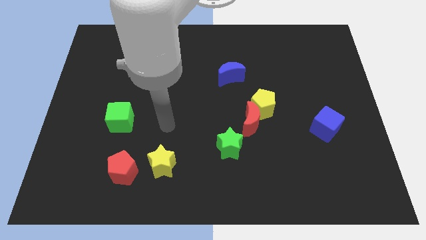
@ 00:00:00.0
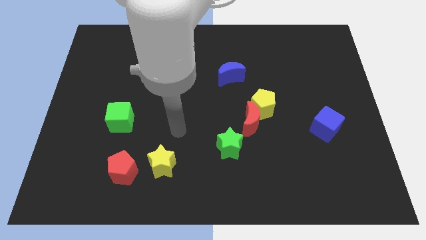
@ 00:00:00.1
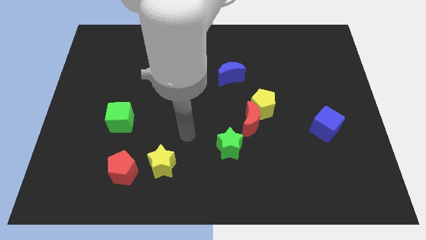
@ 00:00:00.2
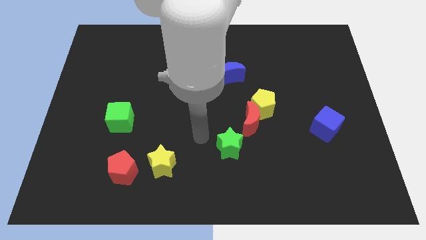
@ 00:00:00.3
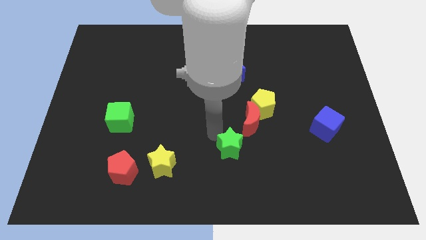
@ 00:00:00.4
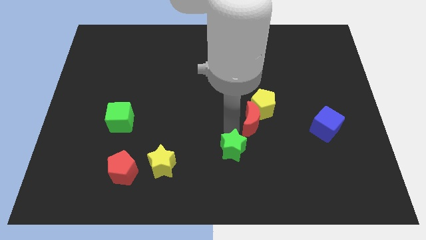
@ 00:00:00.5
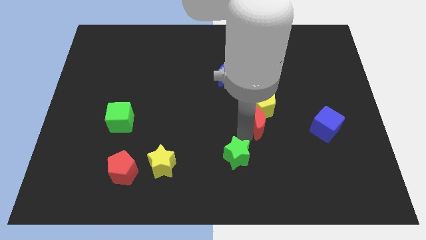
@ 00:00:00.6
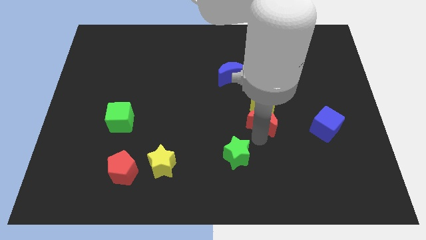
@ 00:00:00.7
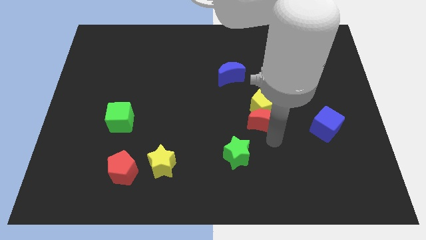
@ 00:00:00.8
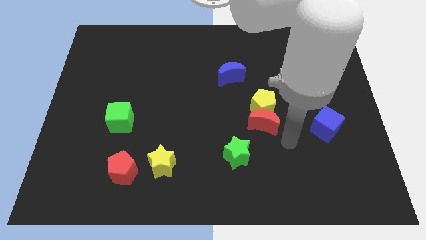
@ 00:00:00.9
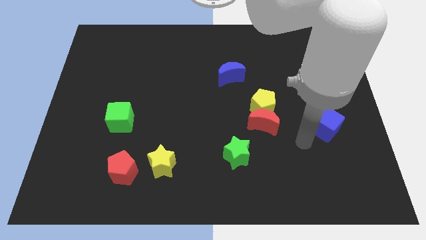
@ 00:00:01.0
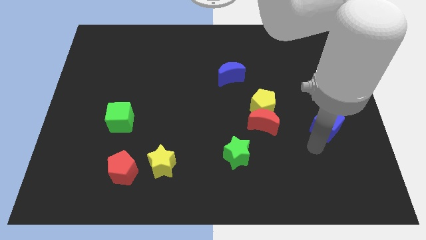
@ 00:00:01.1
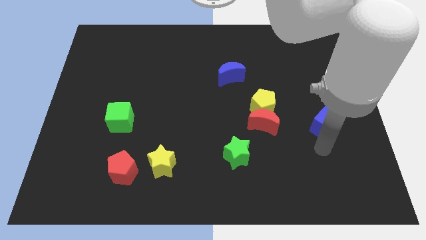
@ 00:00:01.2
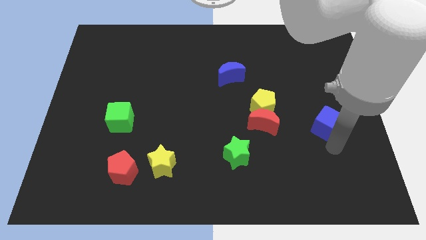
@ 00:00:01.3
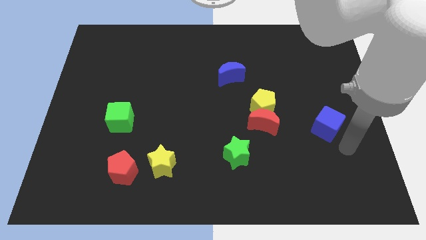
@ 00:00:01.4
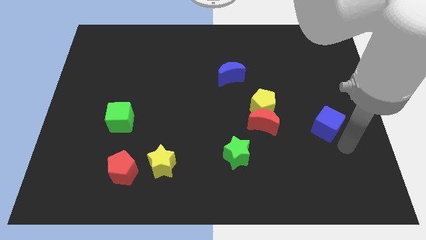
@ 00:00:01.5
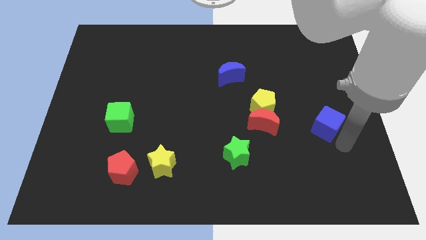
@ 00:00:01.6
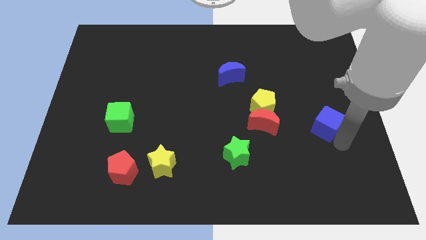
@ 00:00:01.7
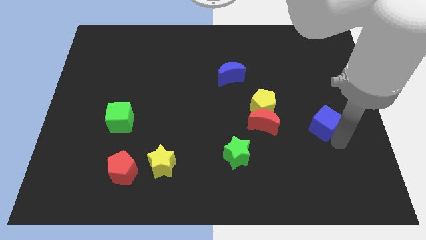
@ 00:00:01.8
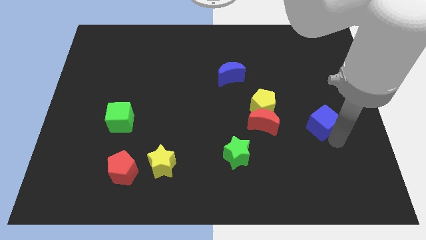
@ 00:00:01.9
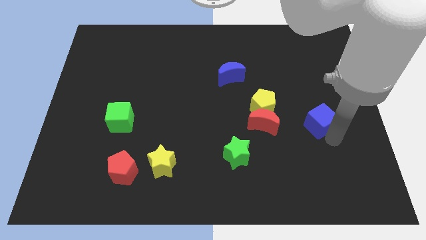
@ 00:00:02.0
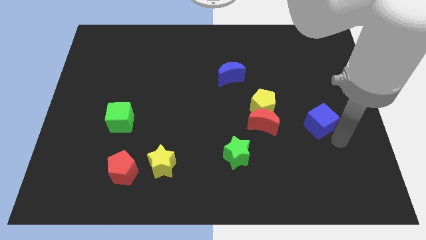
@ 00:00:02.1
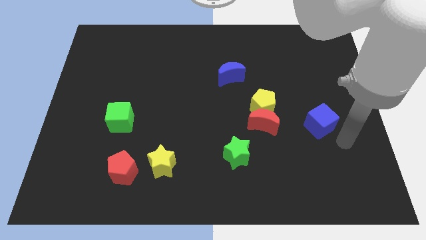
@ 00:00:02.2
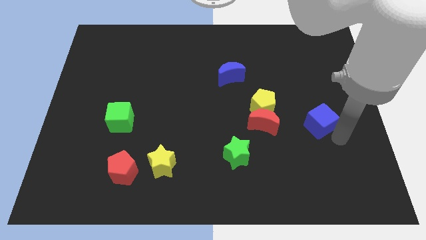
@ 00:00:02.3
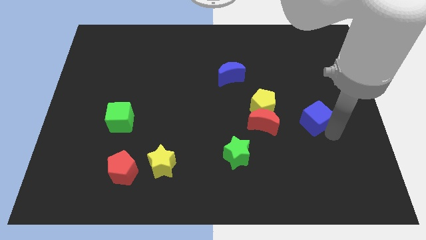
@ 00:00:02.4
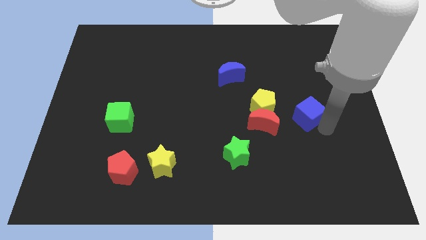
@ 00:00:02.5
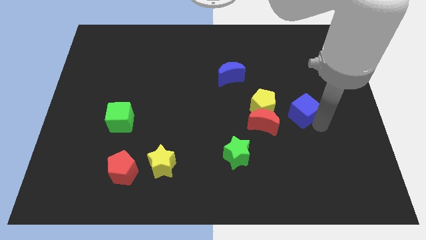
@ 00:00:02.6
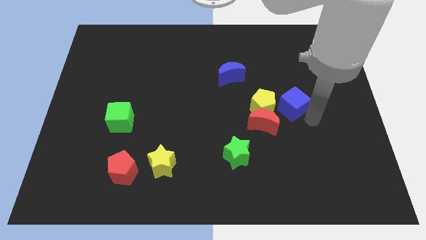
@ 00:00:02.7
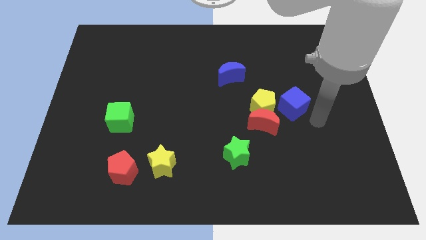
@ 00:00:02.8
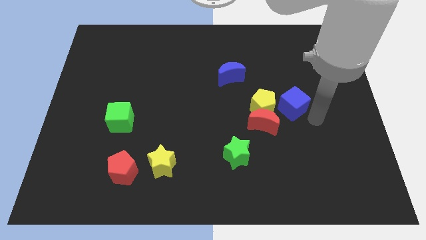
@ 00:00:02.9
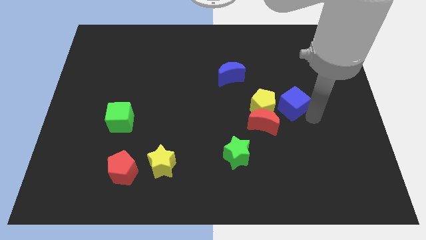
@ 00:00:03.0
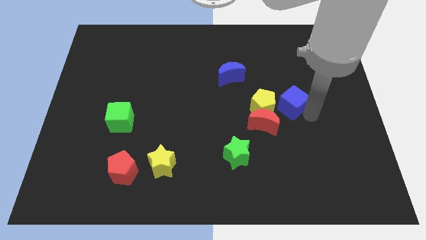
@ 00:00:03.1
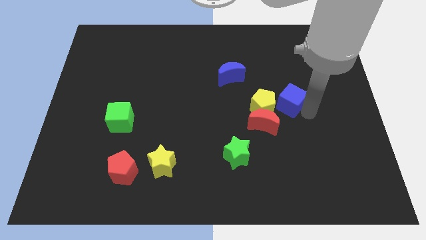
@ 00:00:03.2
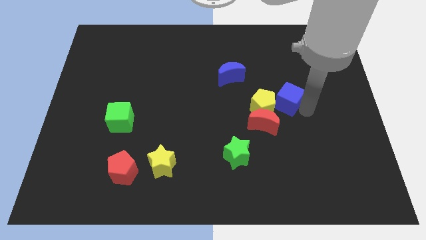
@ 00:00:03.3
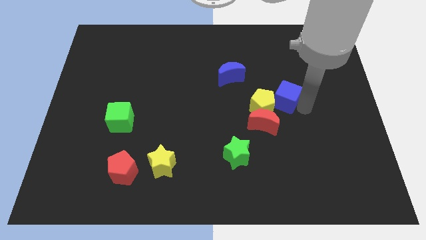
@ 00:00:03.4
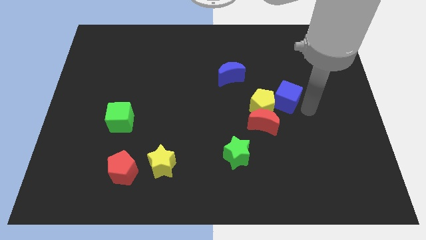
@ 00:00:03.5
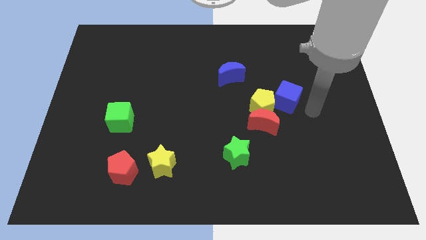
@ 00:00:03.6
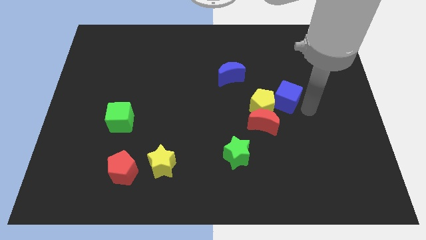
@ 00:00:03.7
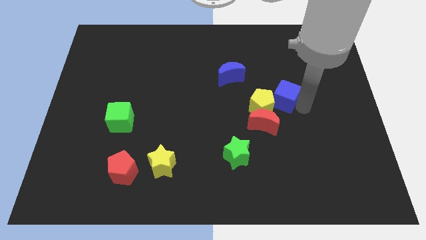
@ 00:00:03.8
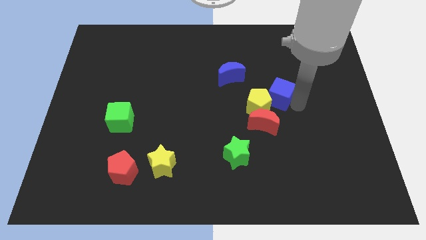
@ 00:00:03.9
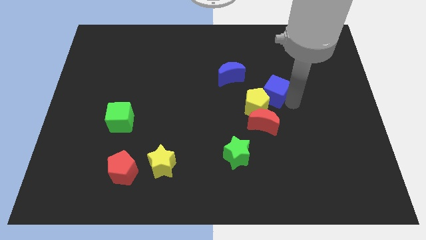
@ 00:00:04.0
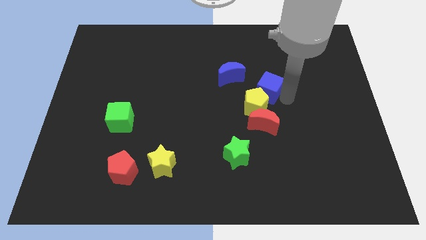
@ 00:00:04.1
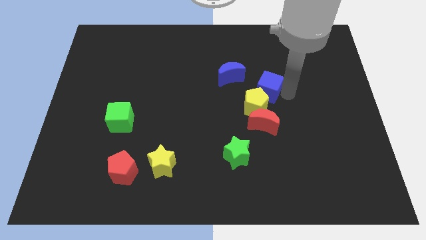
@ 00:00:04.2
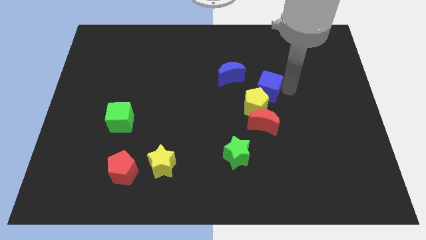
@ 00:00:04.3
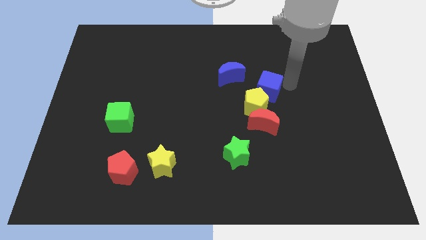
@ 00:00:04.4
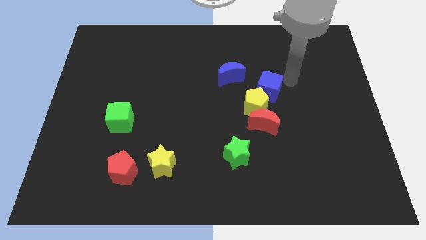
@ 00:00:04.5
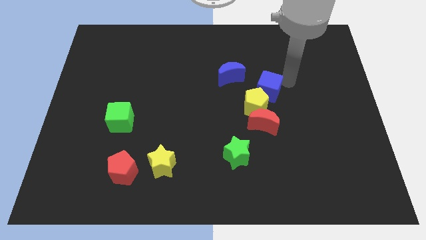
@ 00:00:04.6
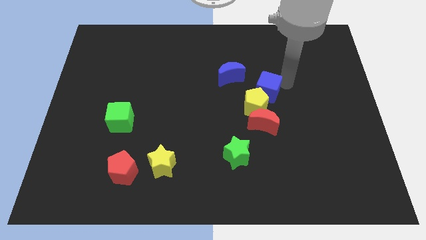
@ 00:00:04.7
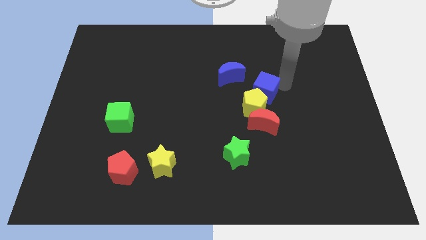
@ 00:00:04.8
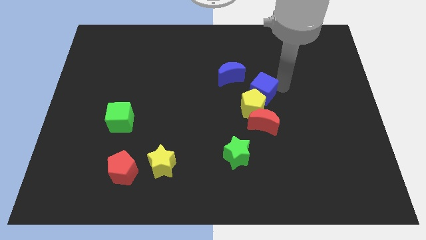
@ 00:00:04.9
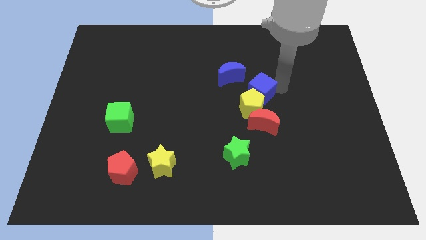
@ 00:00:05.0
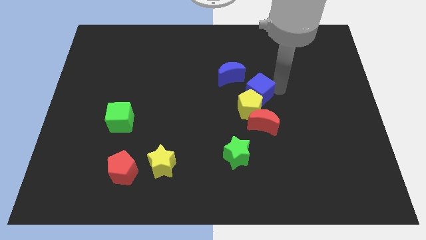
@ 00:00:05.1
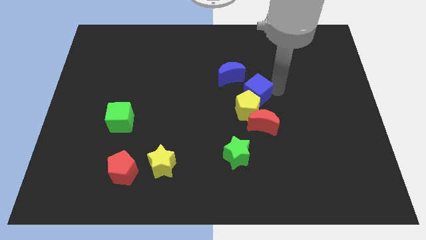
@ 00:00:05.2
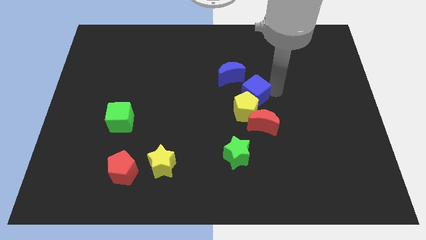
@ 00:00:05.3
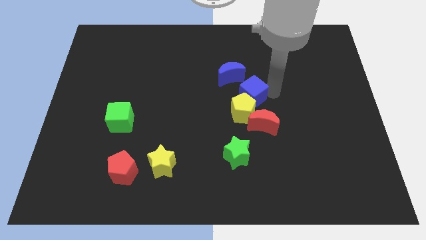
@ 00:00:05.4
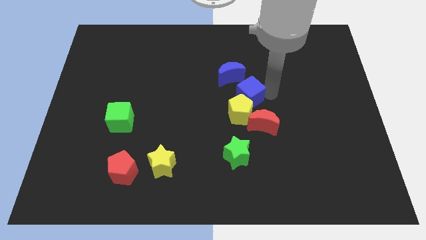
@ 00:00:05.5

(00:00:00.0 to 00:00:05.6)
slide the blue cube to the bottom of the blue moon

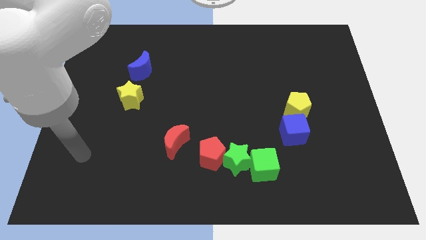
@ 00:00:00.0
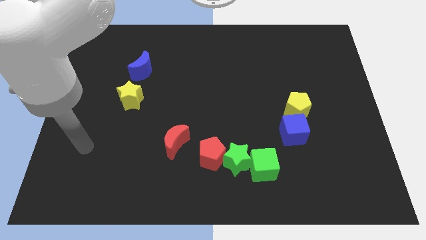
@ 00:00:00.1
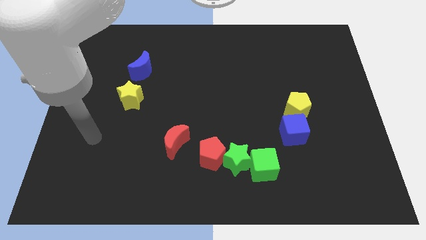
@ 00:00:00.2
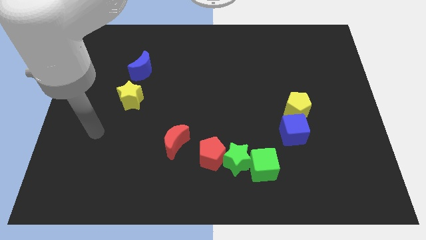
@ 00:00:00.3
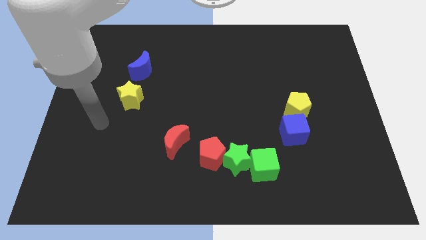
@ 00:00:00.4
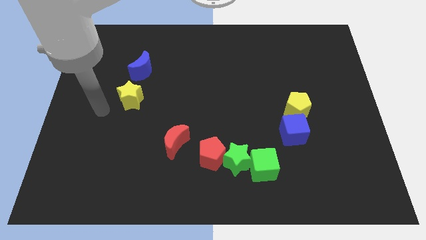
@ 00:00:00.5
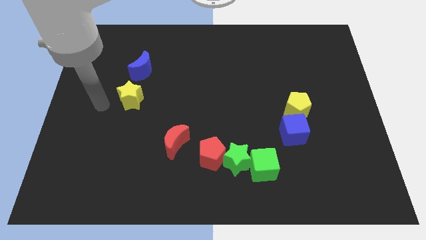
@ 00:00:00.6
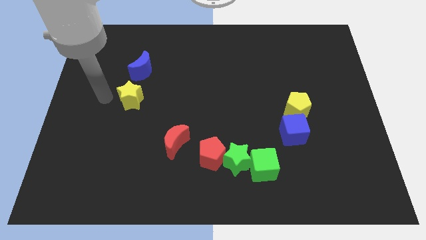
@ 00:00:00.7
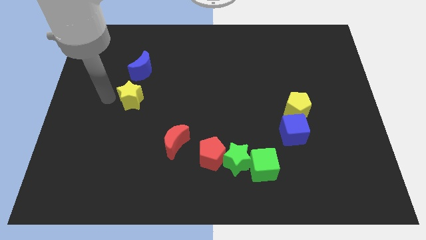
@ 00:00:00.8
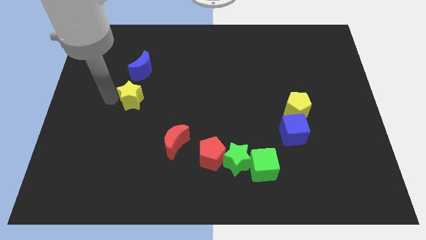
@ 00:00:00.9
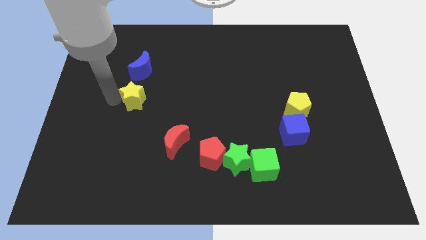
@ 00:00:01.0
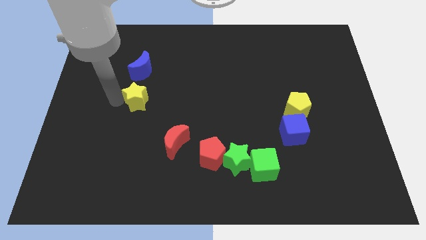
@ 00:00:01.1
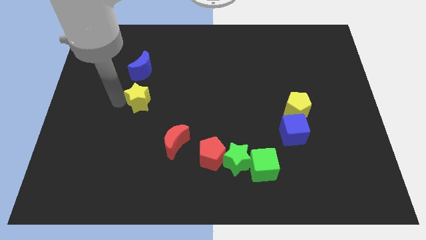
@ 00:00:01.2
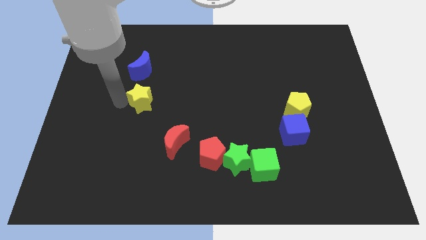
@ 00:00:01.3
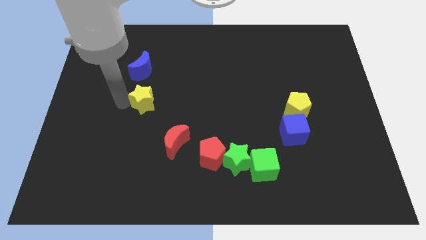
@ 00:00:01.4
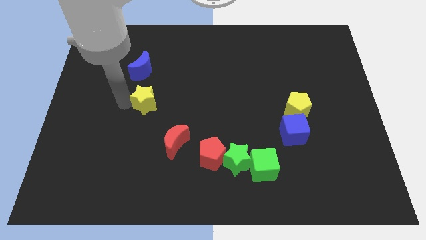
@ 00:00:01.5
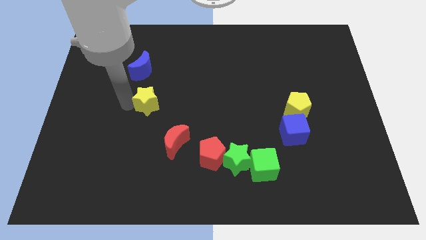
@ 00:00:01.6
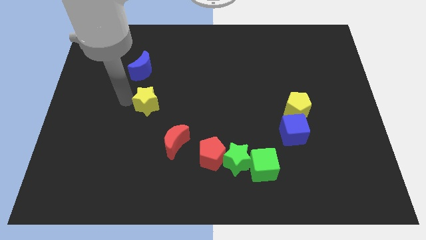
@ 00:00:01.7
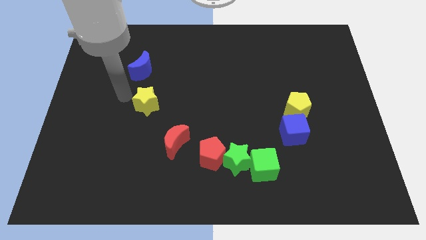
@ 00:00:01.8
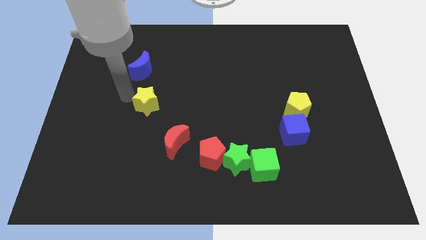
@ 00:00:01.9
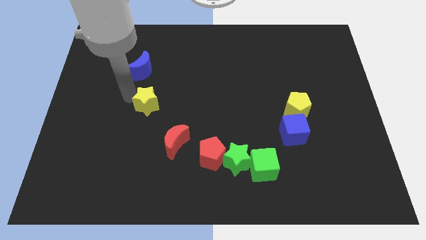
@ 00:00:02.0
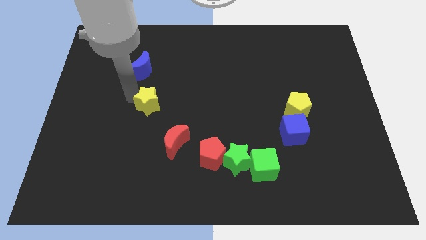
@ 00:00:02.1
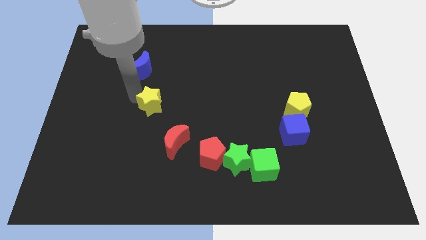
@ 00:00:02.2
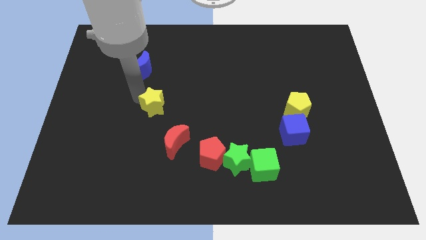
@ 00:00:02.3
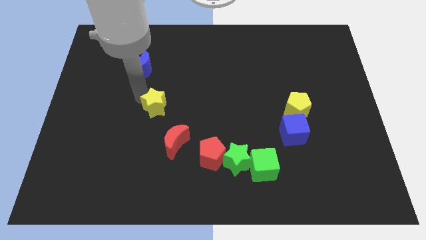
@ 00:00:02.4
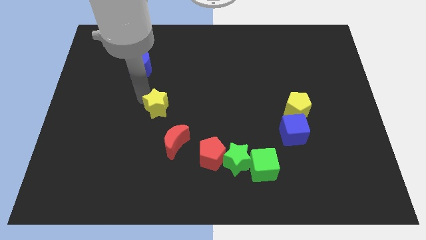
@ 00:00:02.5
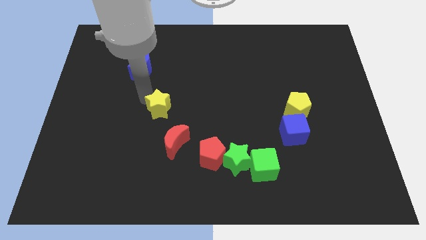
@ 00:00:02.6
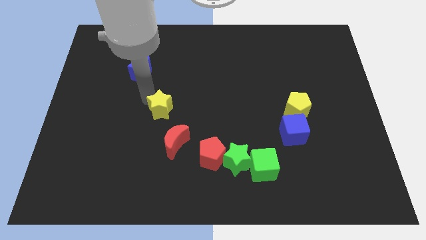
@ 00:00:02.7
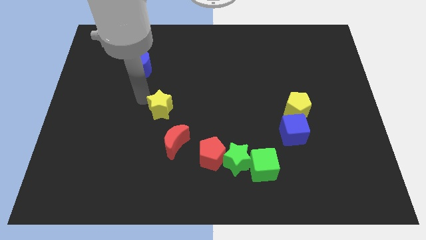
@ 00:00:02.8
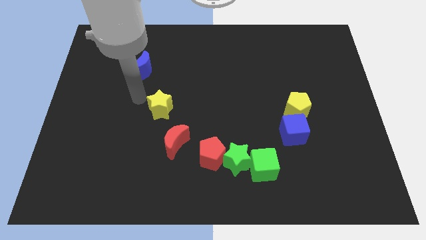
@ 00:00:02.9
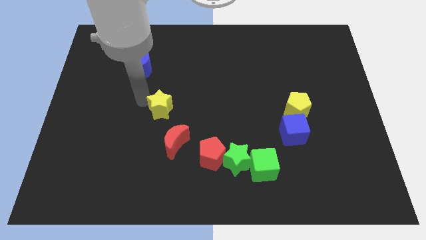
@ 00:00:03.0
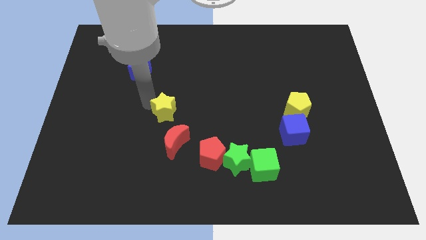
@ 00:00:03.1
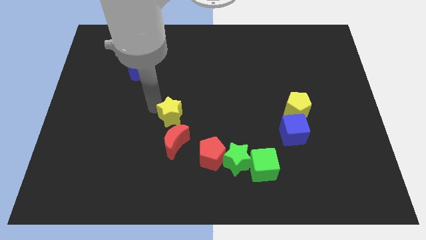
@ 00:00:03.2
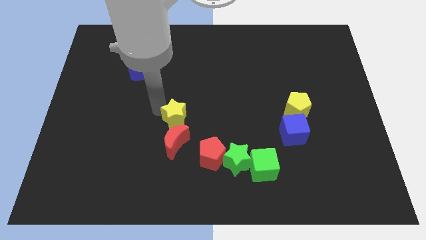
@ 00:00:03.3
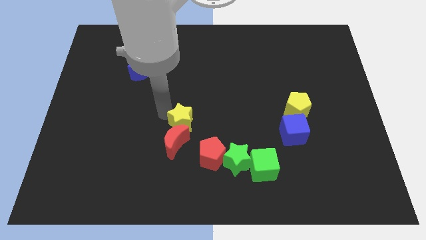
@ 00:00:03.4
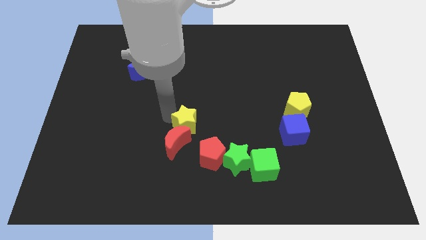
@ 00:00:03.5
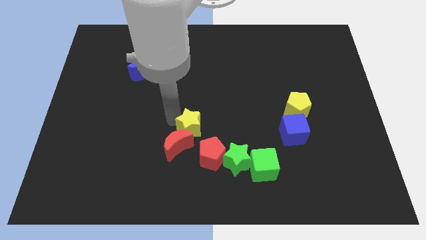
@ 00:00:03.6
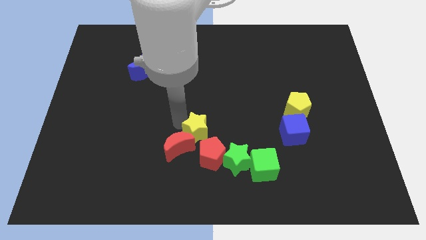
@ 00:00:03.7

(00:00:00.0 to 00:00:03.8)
slide the yellow star to the top left side of the green star
